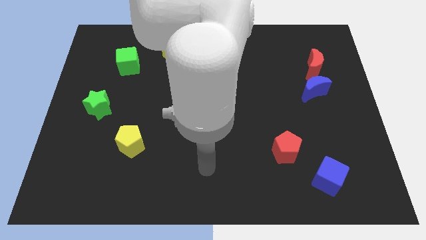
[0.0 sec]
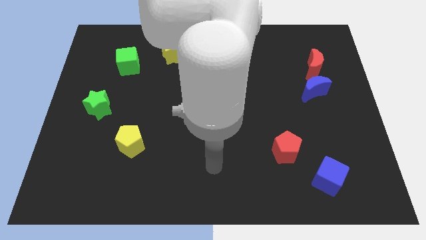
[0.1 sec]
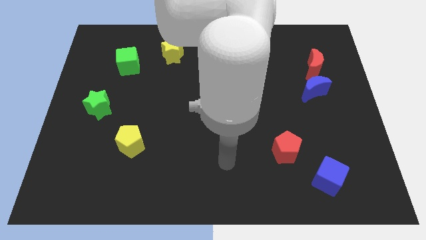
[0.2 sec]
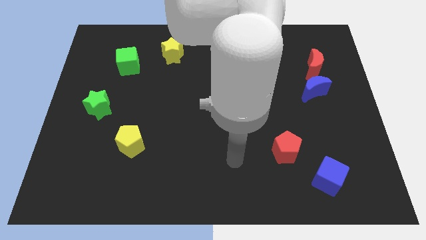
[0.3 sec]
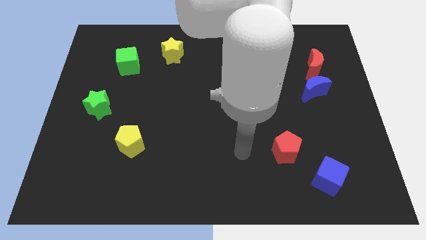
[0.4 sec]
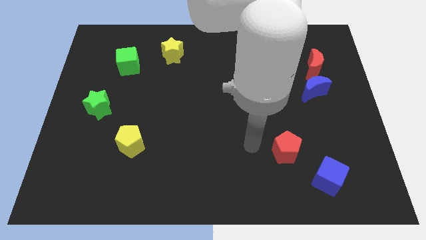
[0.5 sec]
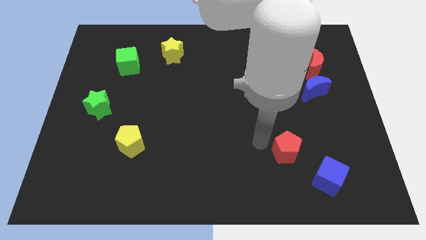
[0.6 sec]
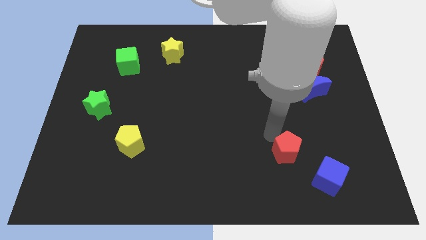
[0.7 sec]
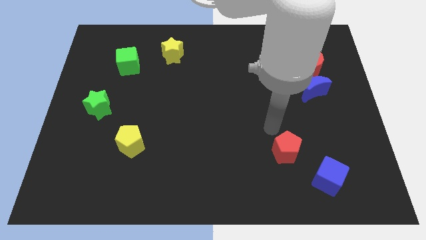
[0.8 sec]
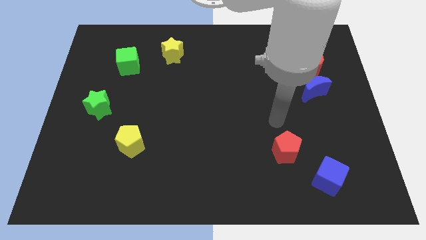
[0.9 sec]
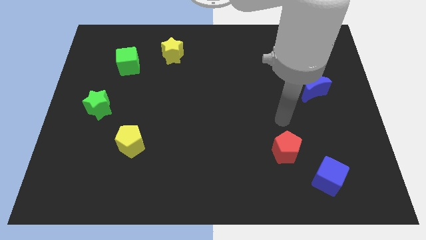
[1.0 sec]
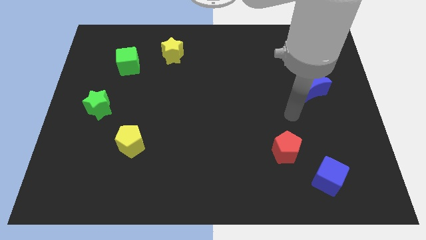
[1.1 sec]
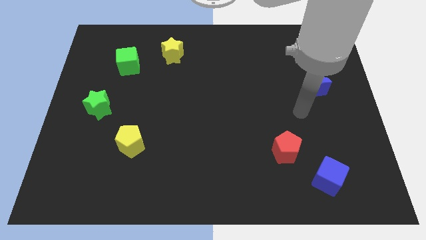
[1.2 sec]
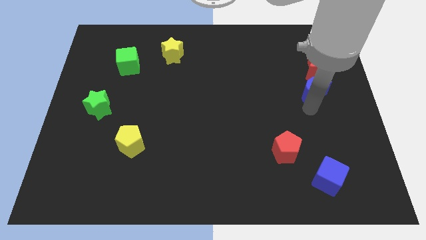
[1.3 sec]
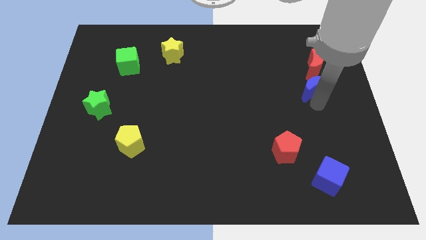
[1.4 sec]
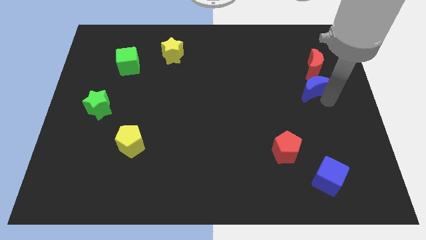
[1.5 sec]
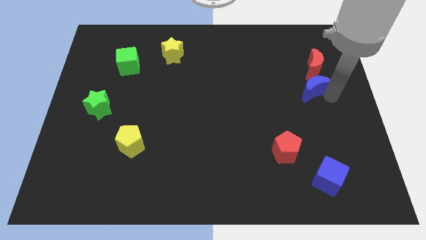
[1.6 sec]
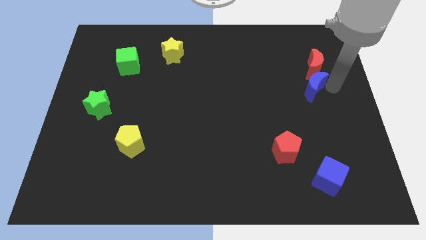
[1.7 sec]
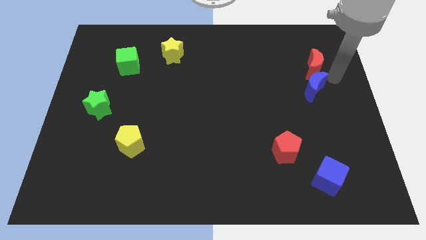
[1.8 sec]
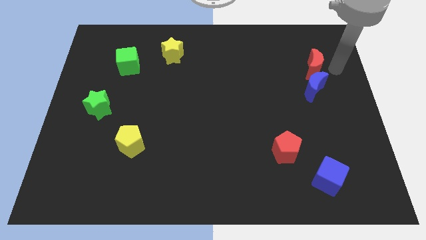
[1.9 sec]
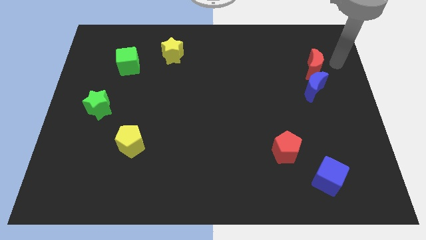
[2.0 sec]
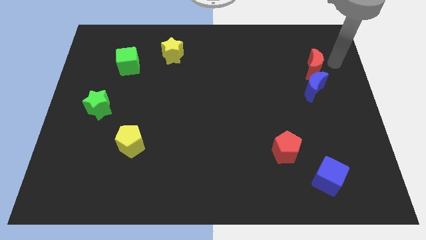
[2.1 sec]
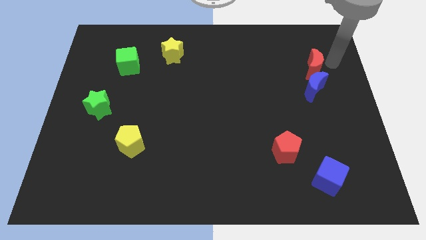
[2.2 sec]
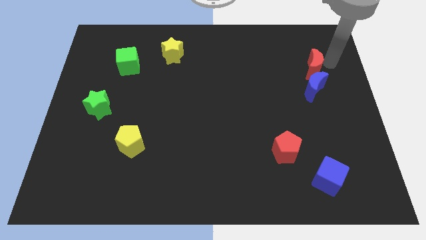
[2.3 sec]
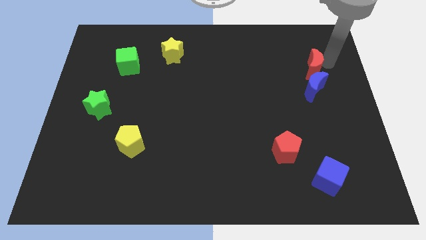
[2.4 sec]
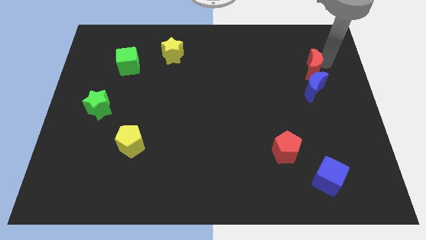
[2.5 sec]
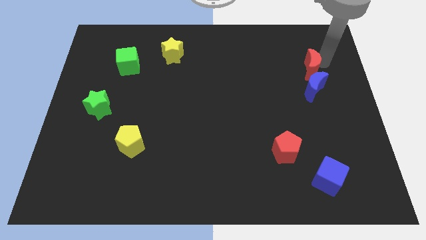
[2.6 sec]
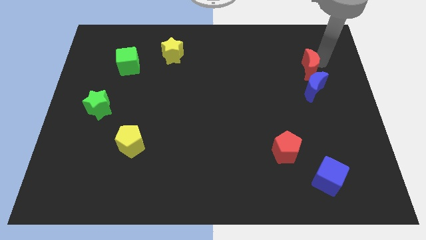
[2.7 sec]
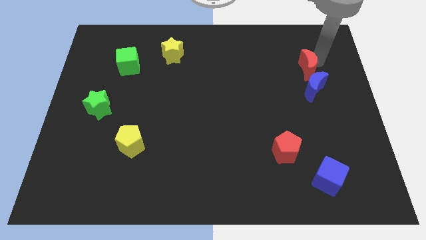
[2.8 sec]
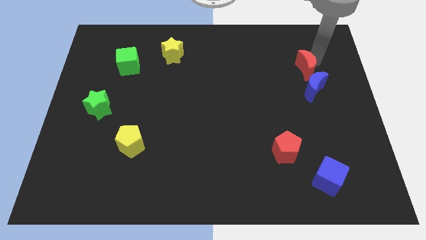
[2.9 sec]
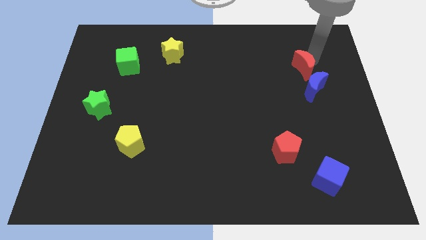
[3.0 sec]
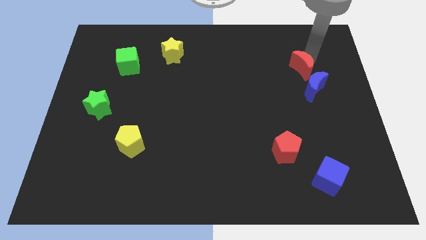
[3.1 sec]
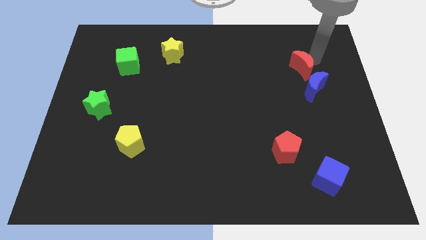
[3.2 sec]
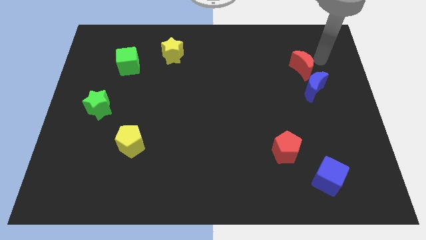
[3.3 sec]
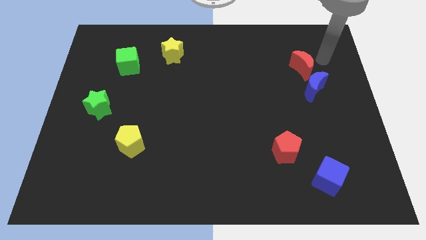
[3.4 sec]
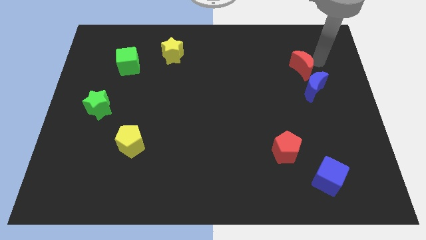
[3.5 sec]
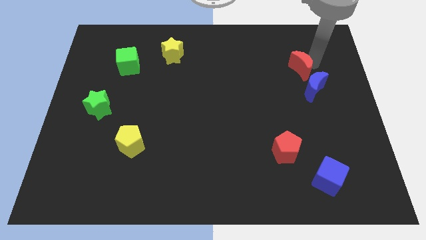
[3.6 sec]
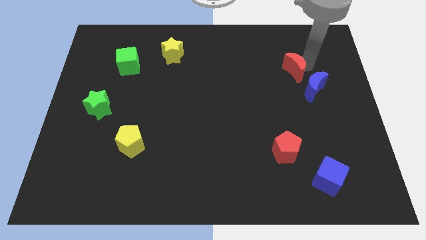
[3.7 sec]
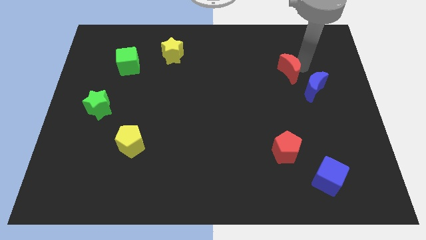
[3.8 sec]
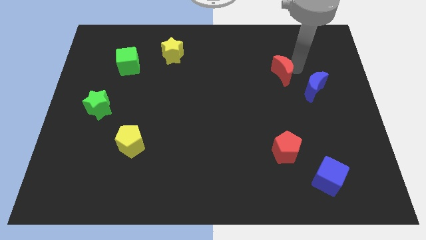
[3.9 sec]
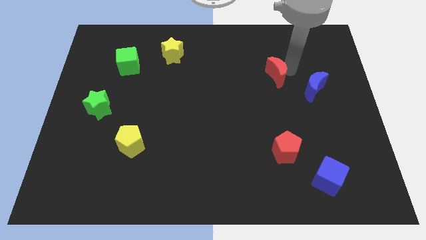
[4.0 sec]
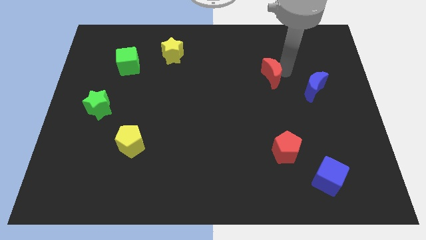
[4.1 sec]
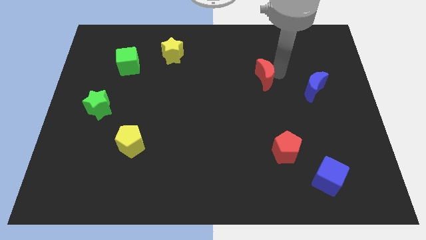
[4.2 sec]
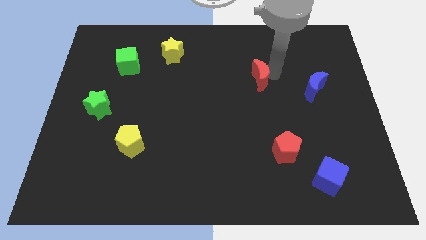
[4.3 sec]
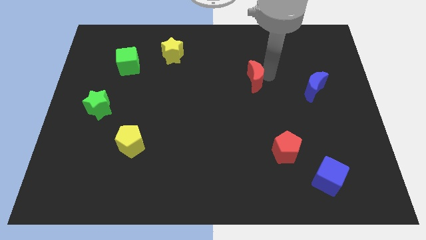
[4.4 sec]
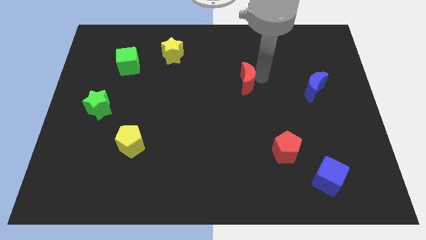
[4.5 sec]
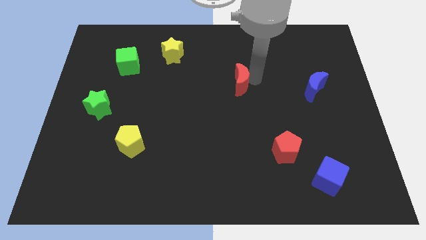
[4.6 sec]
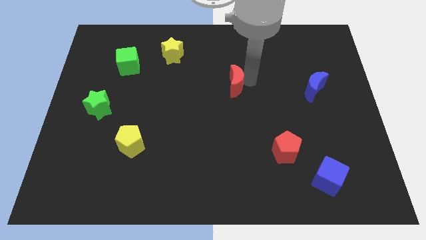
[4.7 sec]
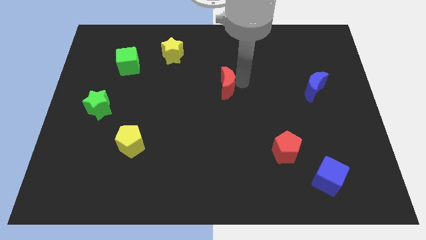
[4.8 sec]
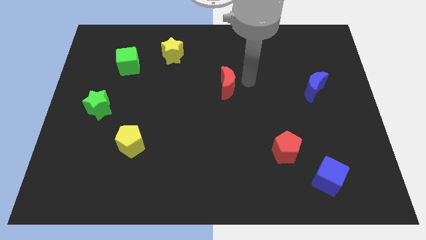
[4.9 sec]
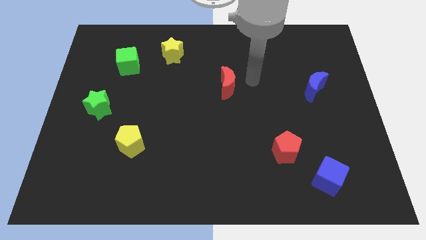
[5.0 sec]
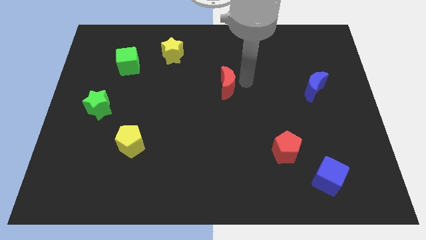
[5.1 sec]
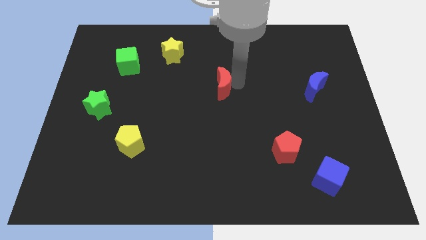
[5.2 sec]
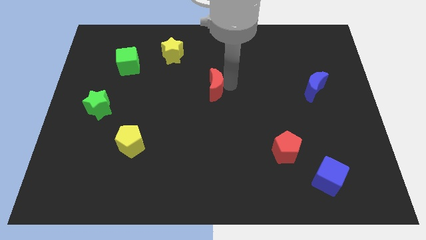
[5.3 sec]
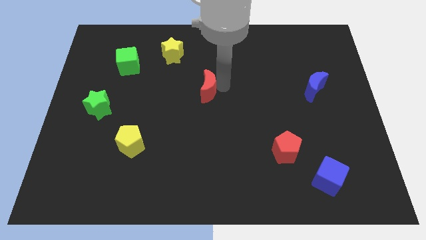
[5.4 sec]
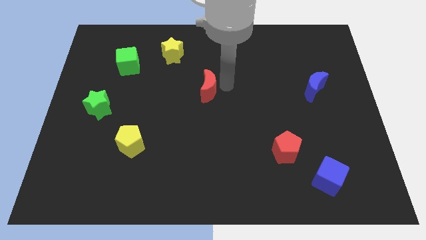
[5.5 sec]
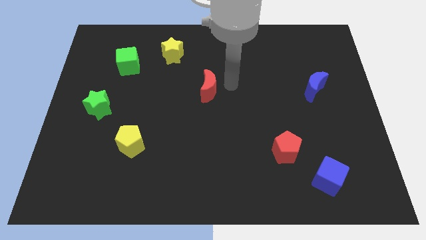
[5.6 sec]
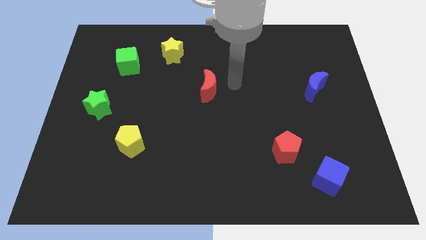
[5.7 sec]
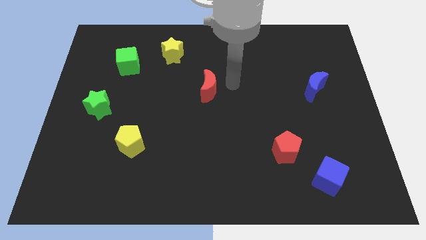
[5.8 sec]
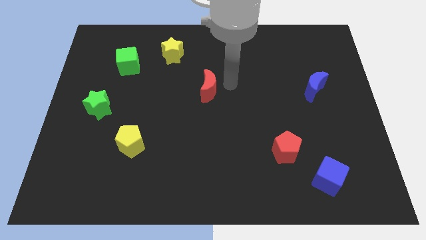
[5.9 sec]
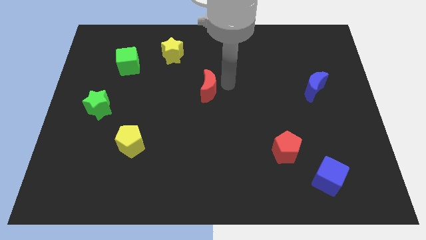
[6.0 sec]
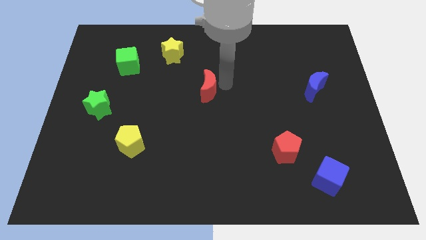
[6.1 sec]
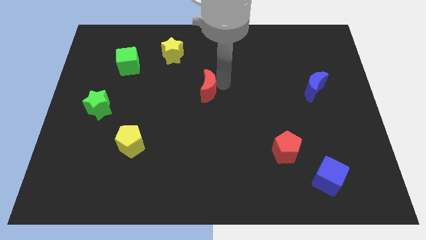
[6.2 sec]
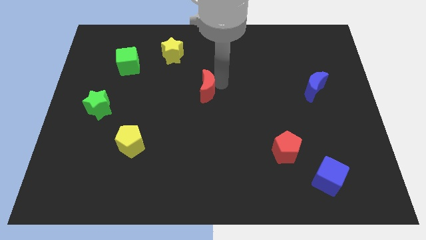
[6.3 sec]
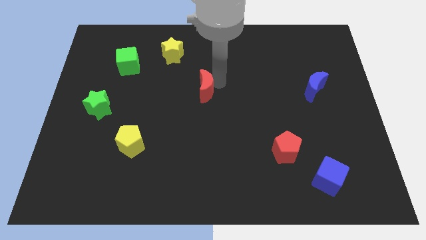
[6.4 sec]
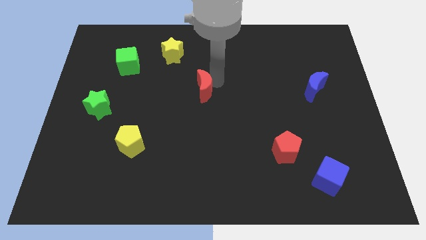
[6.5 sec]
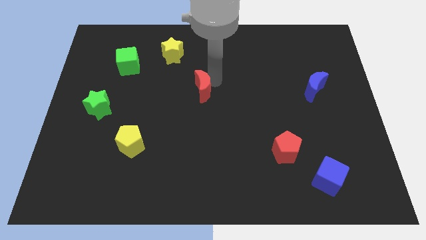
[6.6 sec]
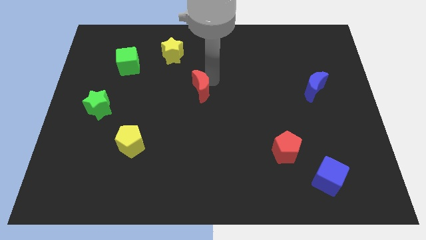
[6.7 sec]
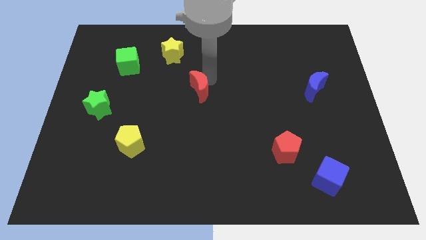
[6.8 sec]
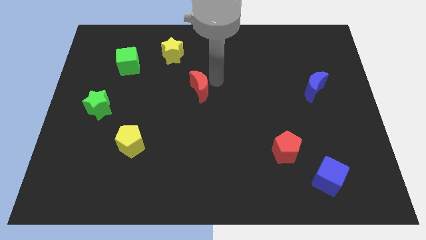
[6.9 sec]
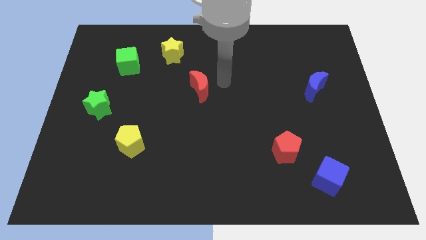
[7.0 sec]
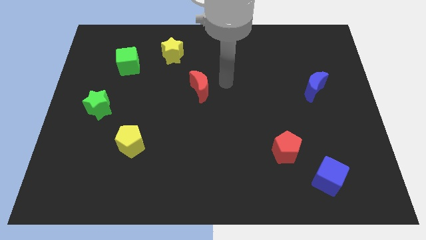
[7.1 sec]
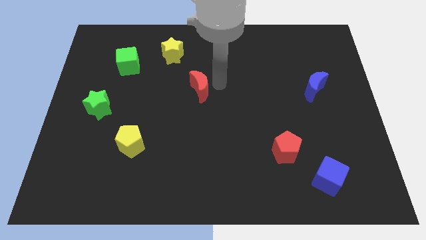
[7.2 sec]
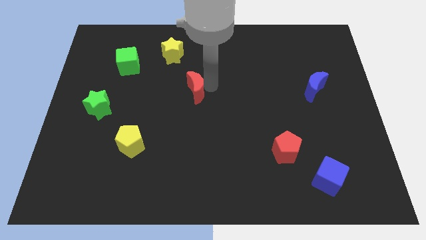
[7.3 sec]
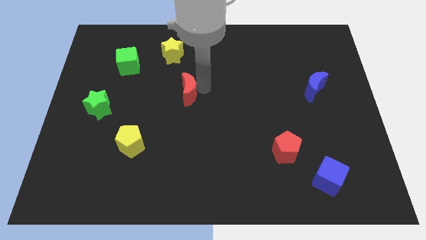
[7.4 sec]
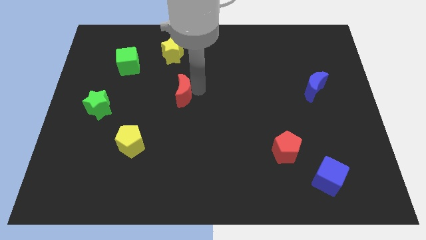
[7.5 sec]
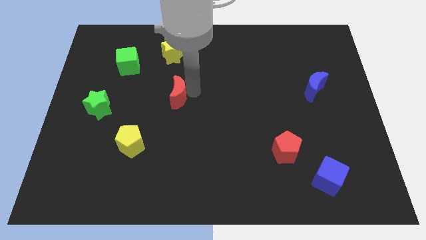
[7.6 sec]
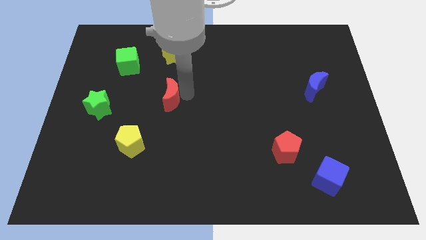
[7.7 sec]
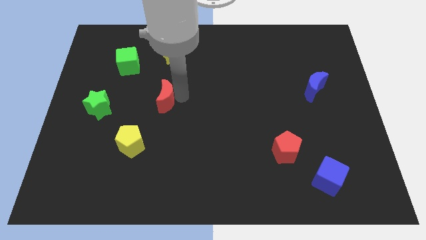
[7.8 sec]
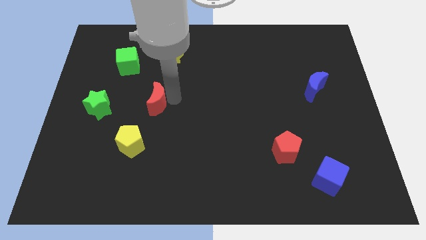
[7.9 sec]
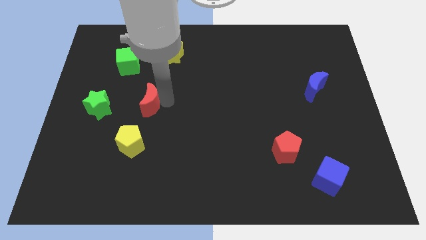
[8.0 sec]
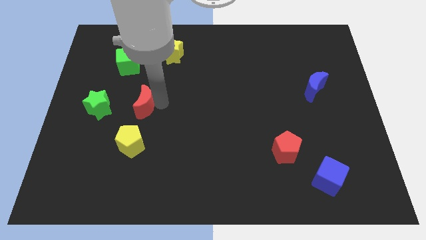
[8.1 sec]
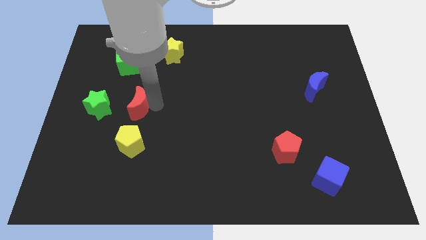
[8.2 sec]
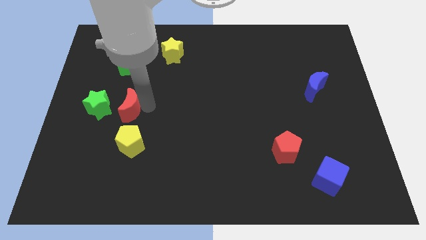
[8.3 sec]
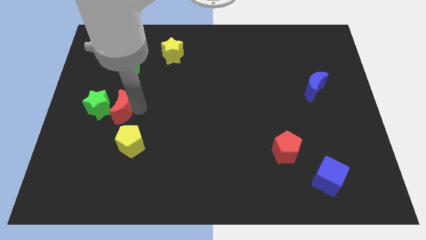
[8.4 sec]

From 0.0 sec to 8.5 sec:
push the red moon next to the green star
